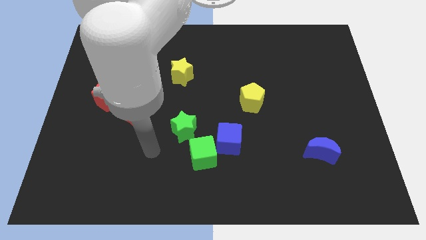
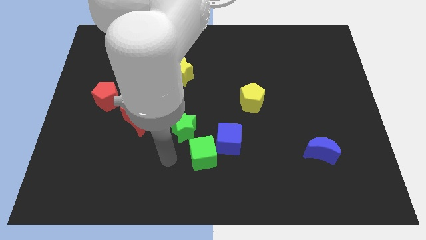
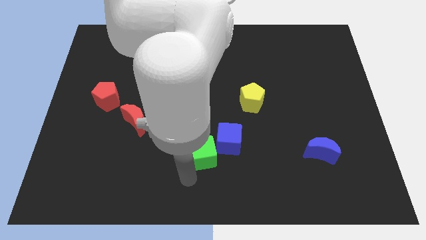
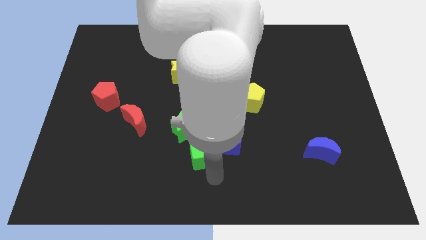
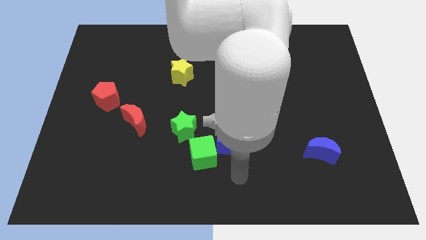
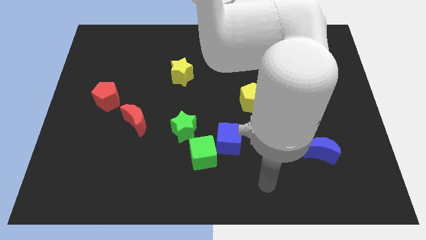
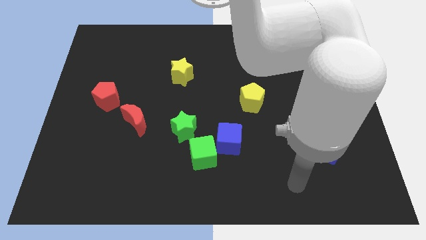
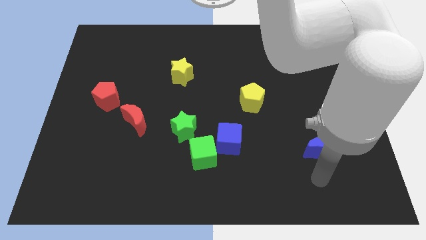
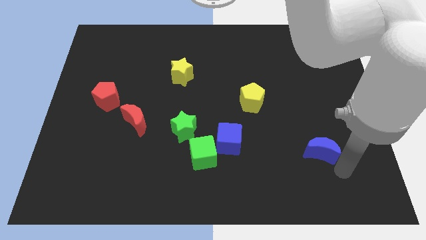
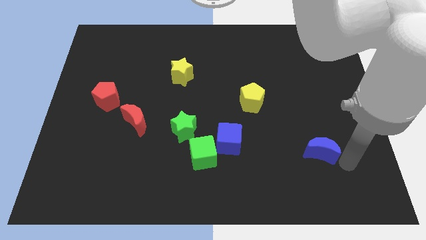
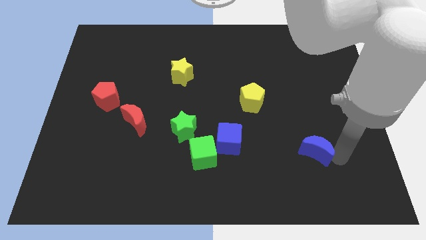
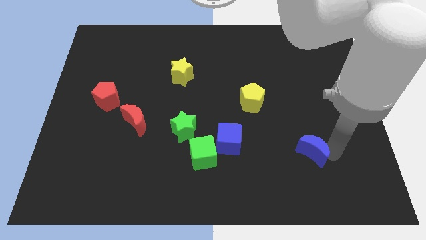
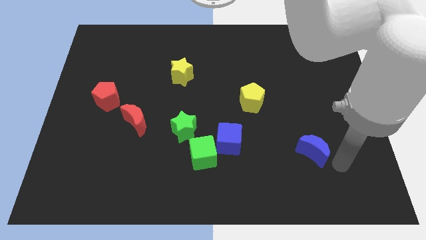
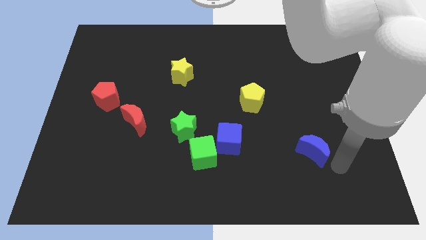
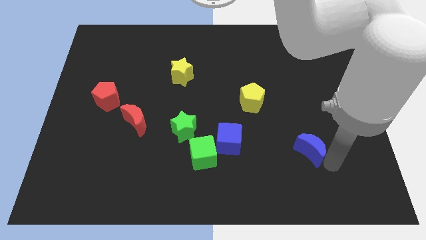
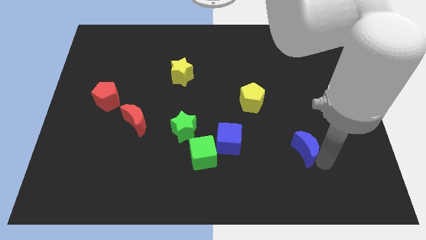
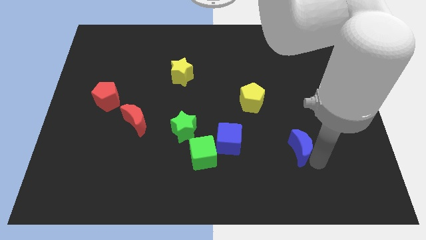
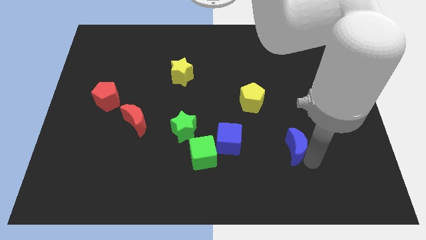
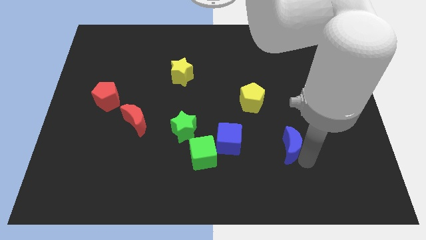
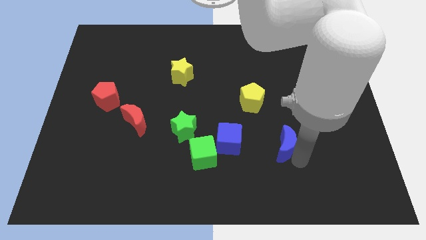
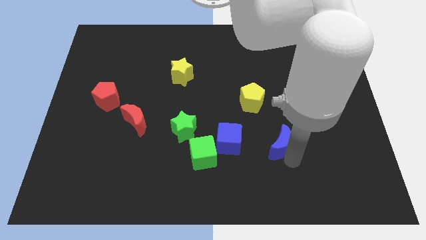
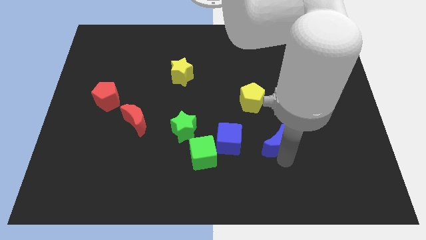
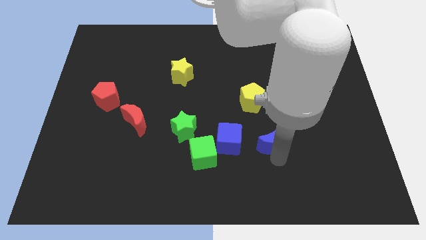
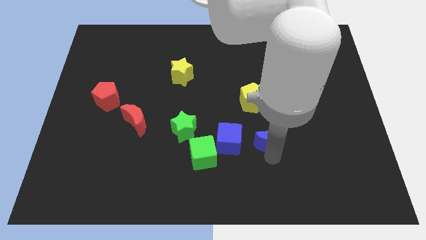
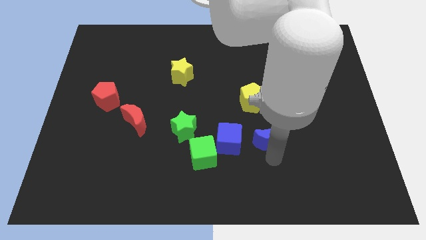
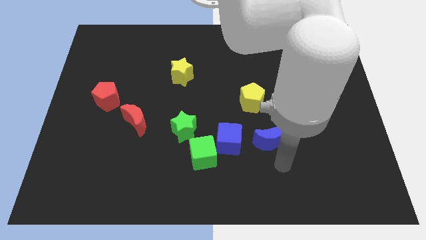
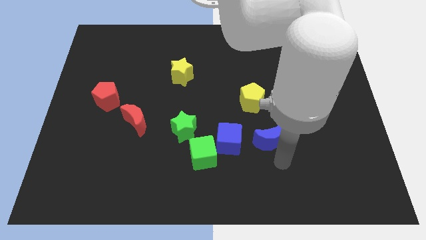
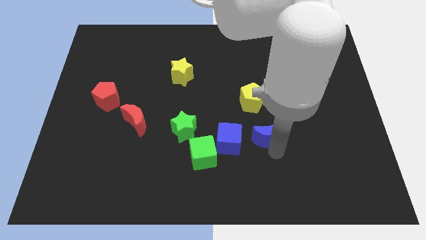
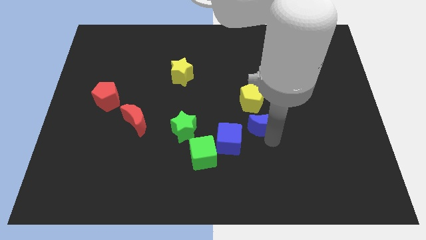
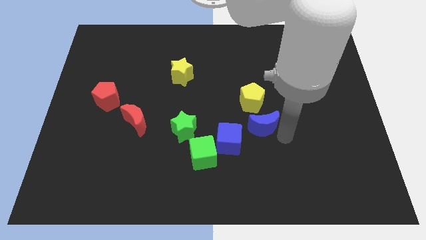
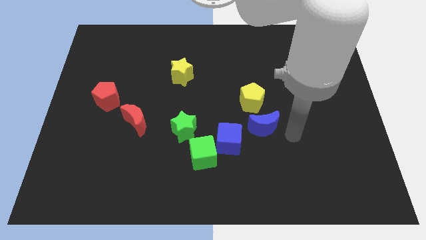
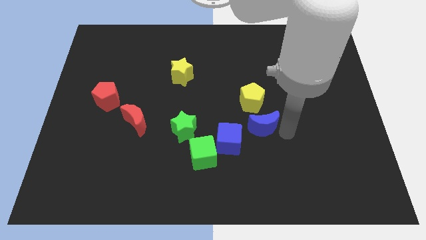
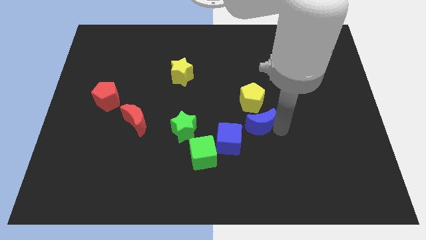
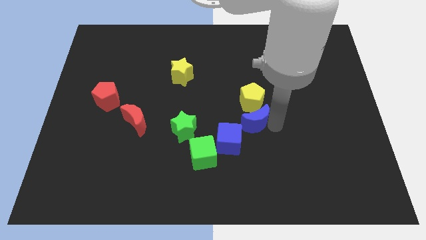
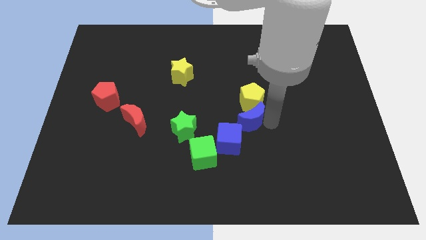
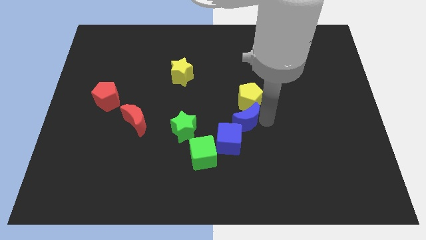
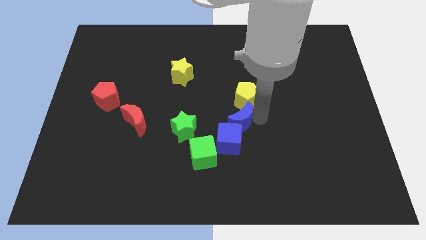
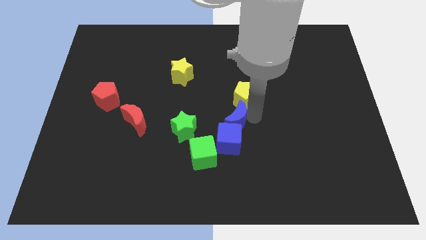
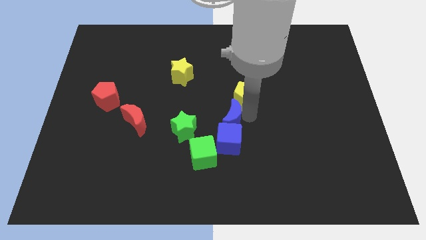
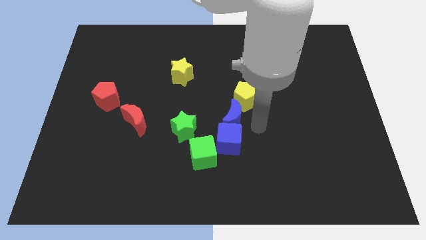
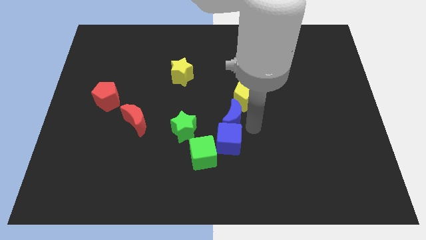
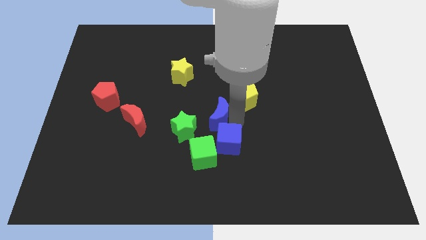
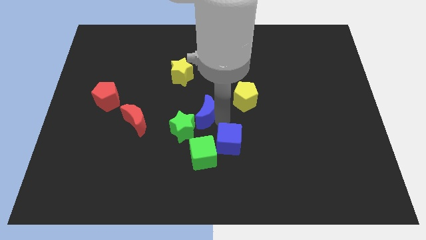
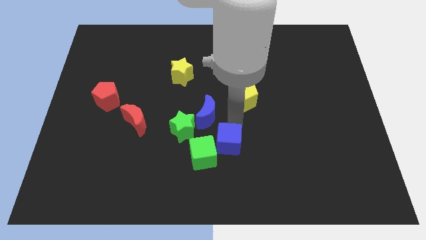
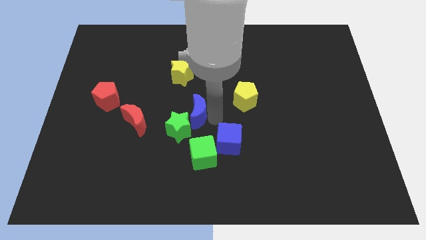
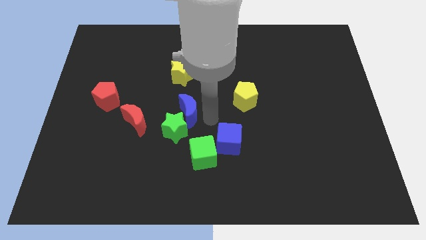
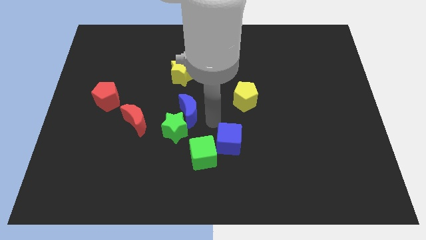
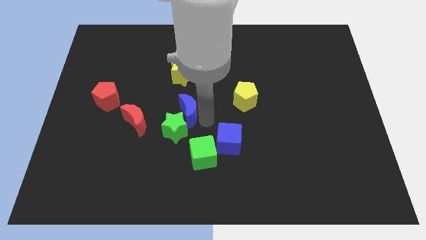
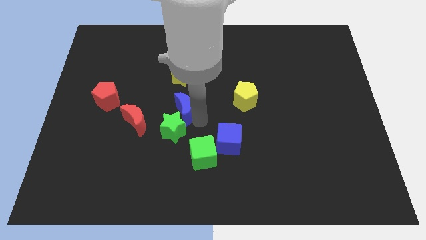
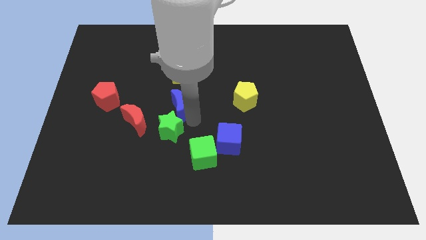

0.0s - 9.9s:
slide the blue moon to the top right of the red moon

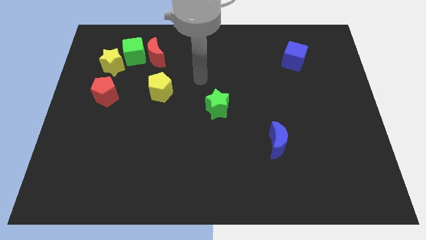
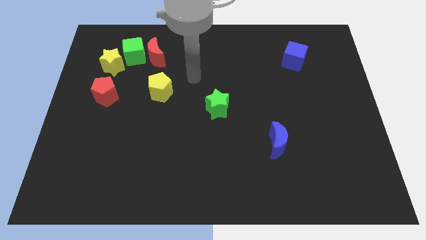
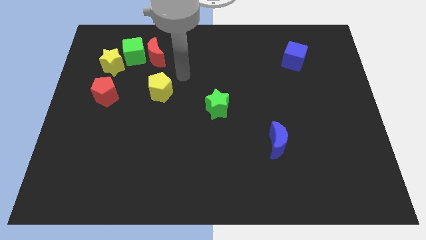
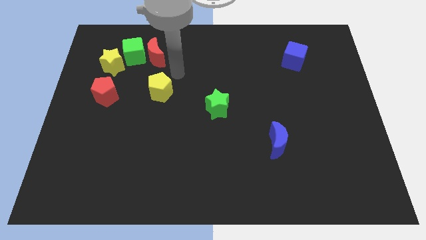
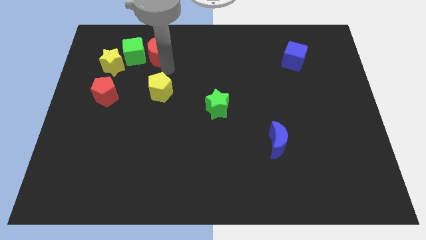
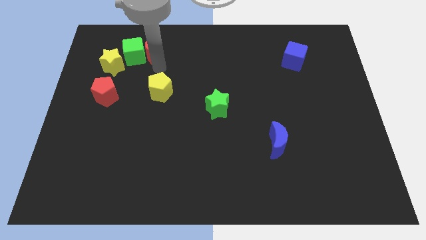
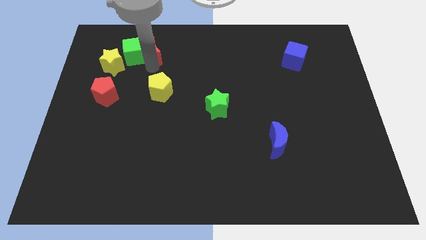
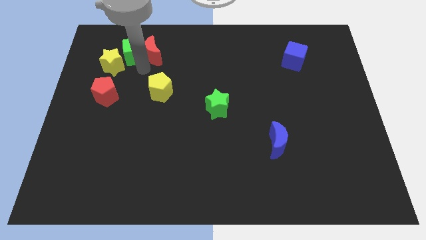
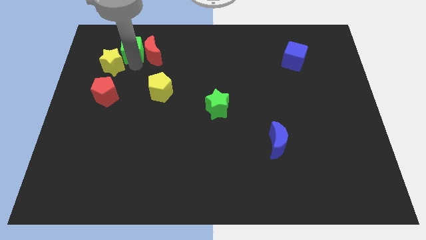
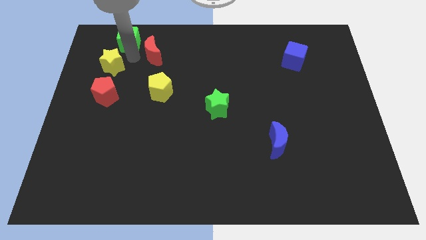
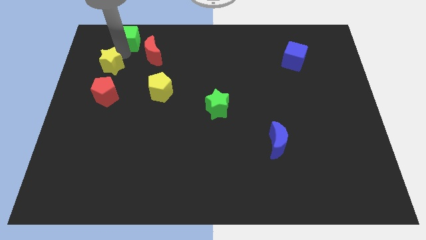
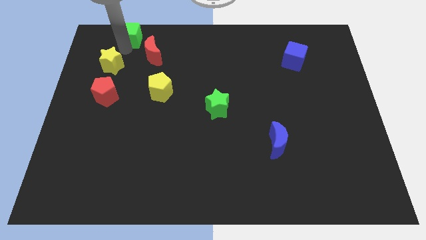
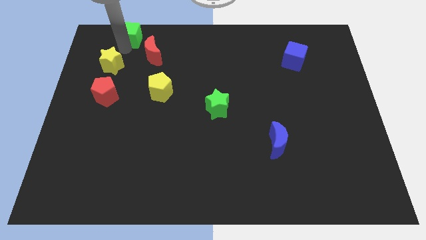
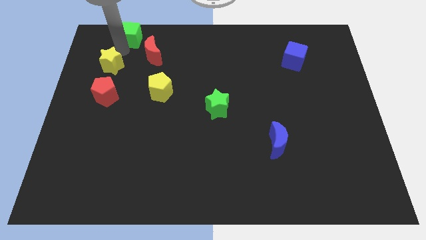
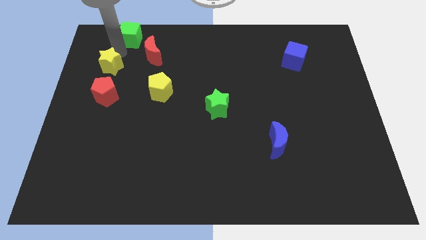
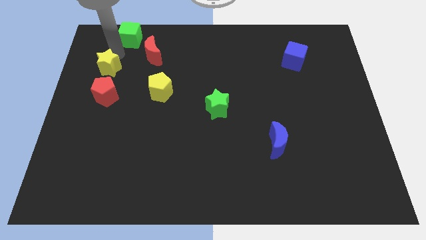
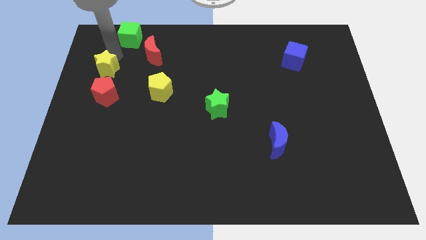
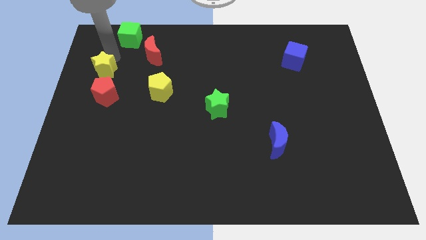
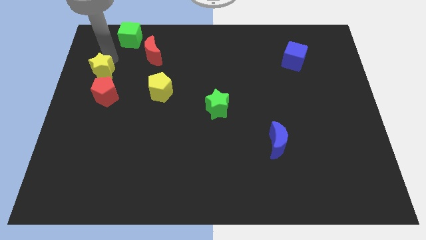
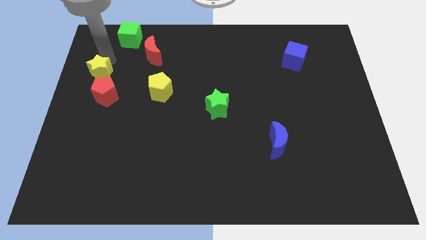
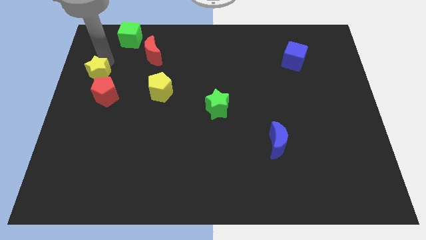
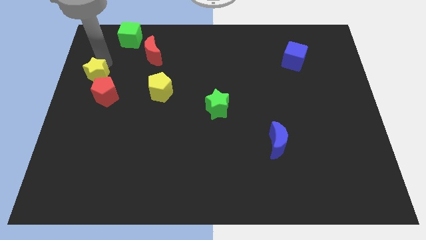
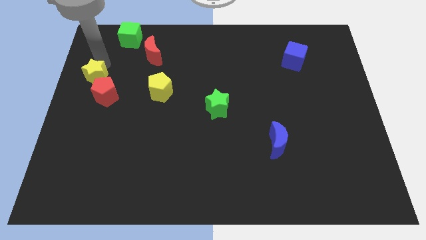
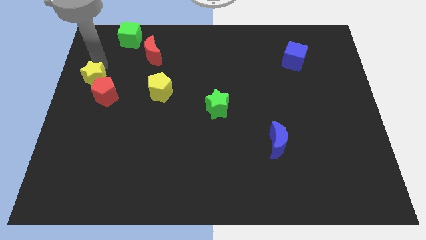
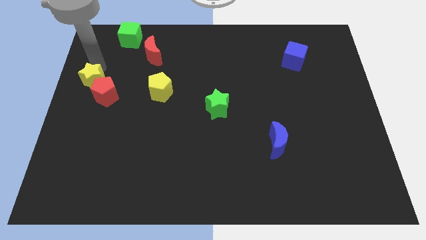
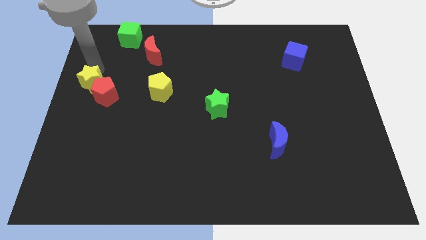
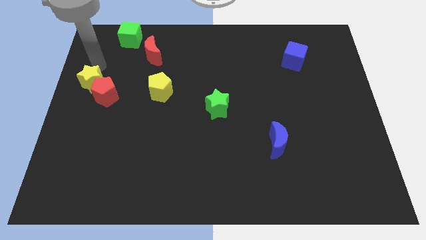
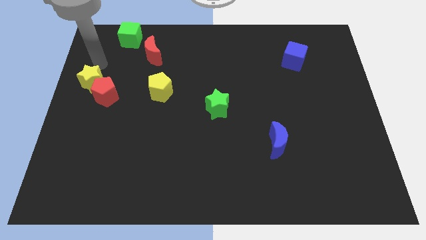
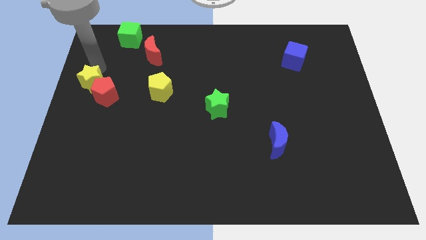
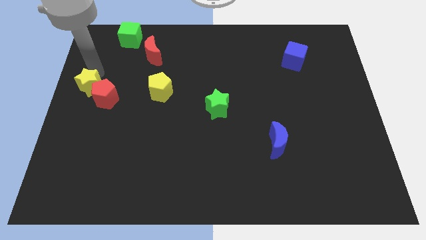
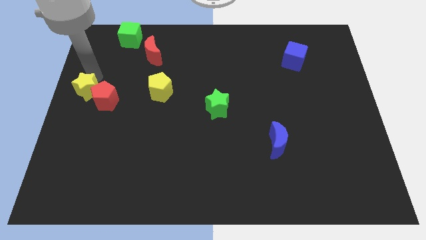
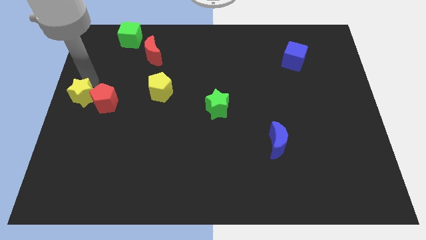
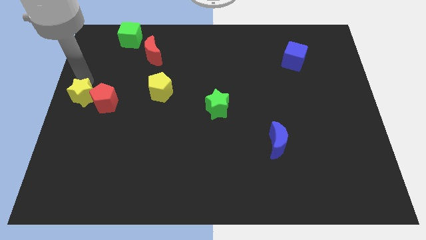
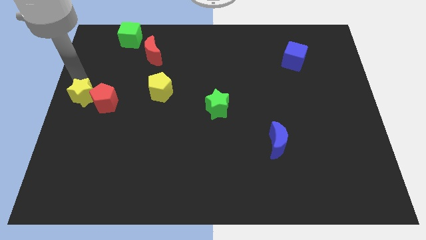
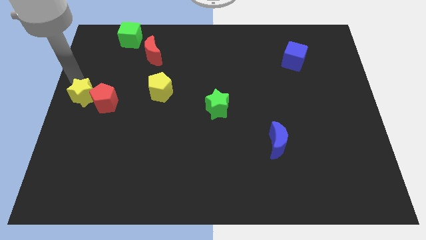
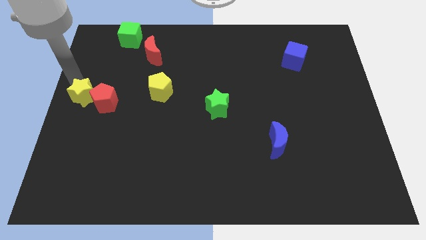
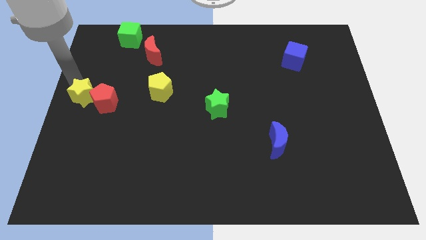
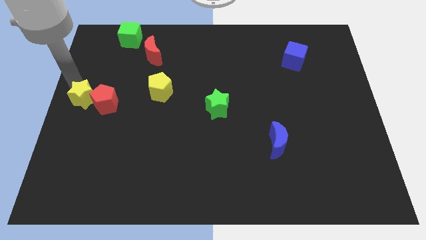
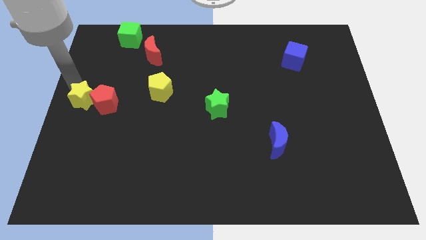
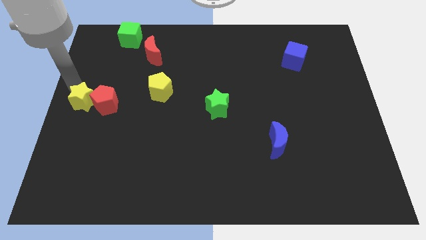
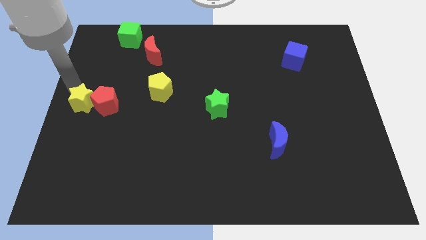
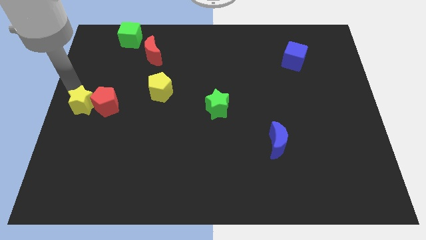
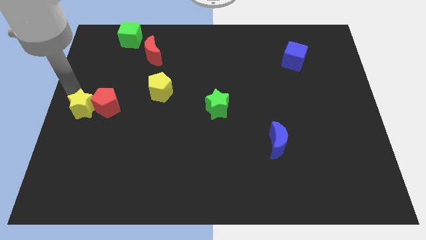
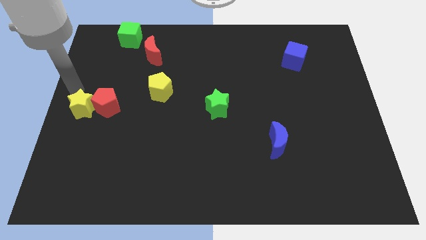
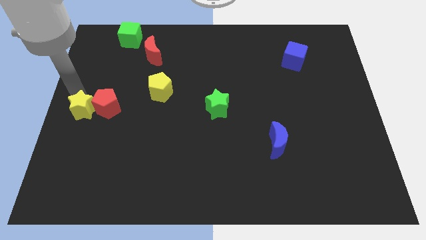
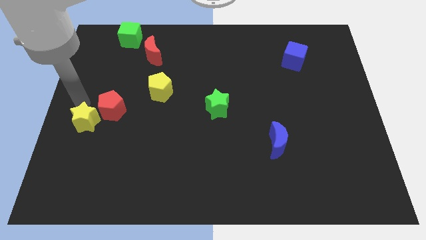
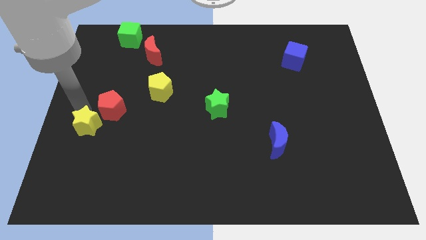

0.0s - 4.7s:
slide the yellow star to the bottom side of the red pentagon
